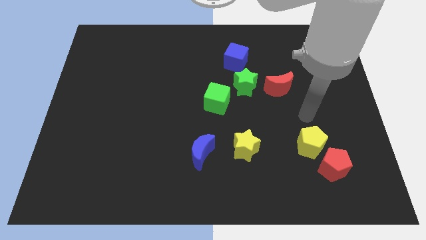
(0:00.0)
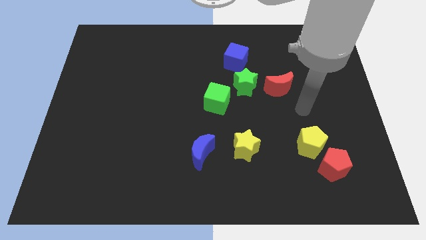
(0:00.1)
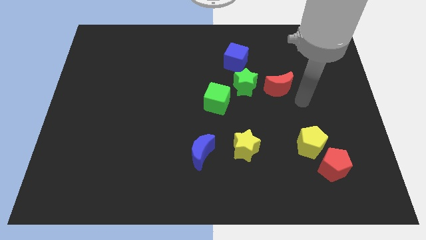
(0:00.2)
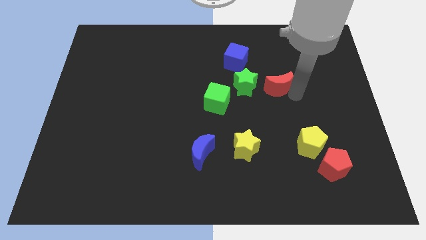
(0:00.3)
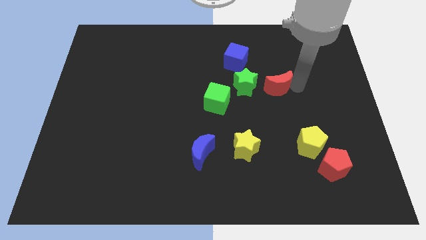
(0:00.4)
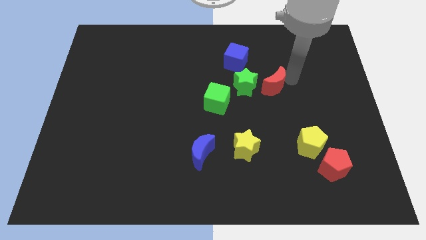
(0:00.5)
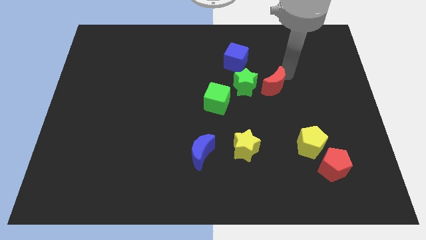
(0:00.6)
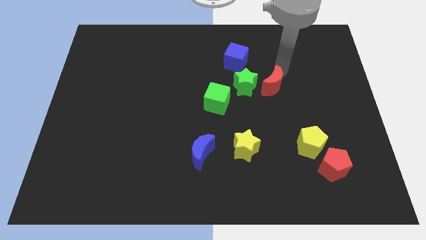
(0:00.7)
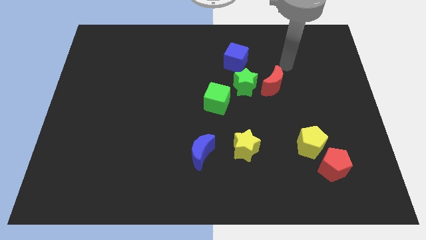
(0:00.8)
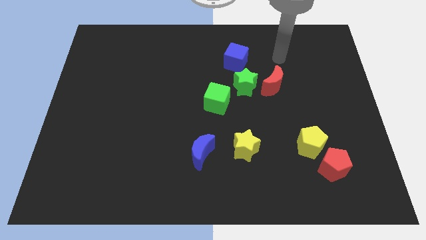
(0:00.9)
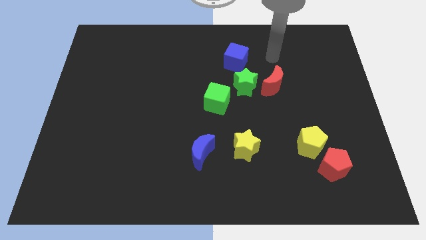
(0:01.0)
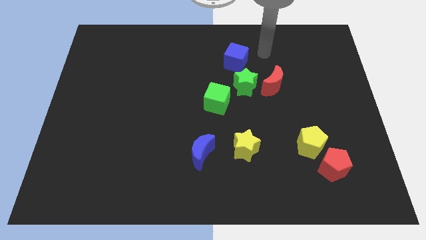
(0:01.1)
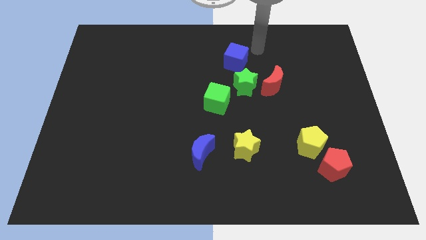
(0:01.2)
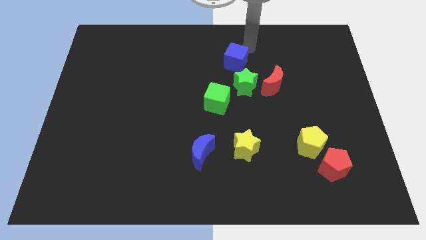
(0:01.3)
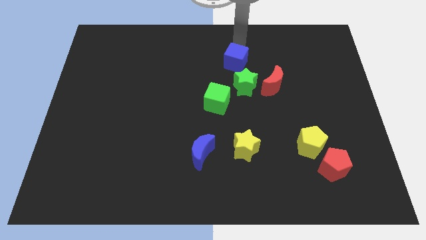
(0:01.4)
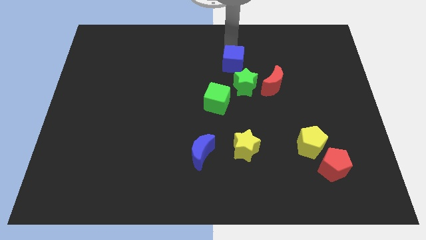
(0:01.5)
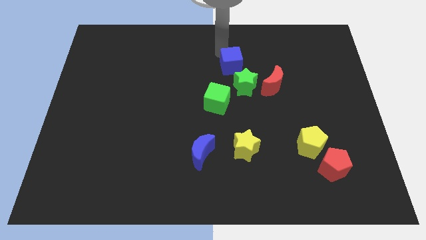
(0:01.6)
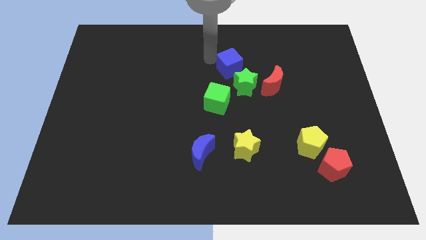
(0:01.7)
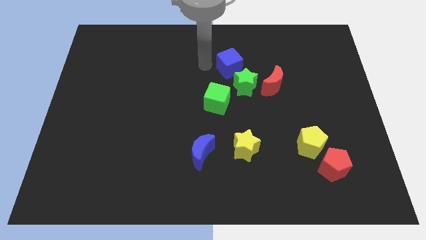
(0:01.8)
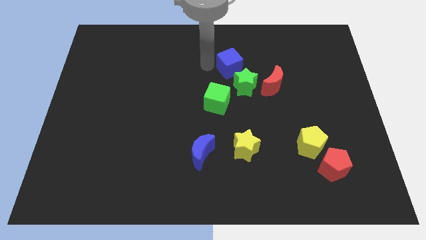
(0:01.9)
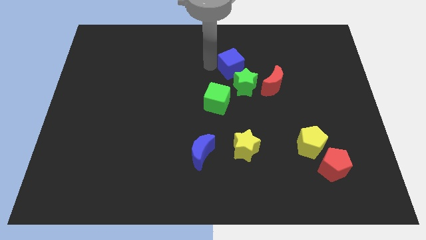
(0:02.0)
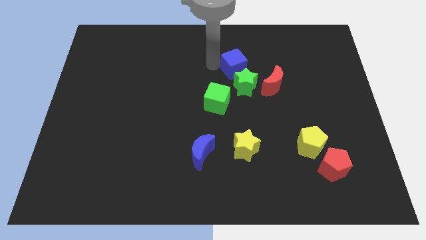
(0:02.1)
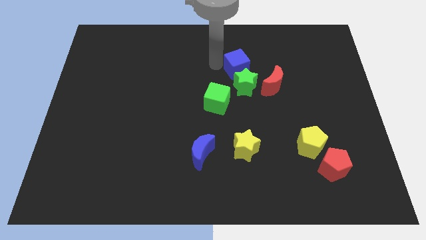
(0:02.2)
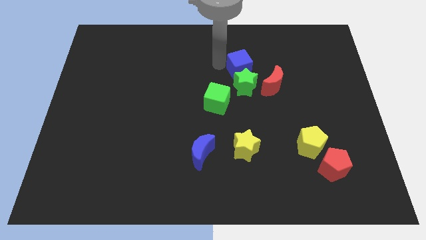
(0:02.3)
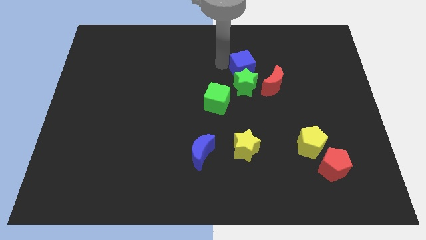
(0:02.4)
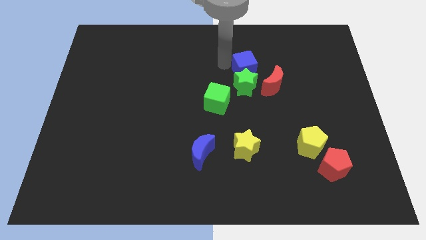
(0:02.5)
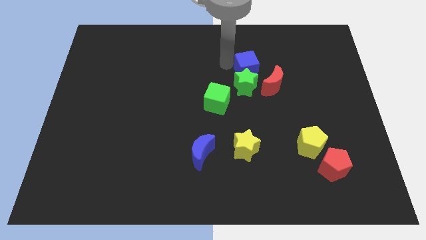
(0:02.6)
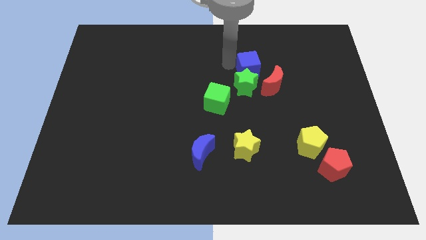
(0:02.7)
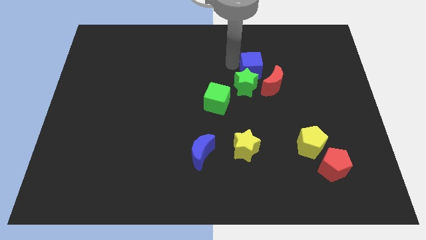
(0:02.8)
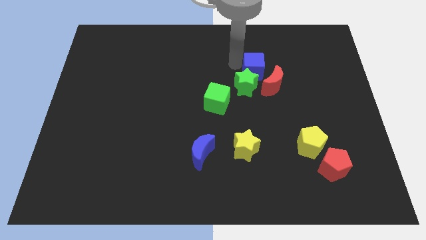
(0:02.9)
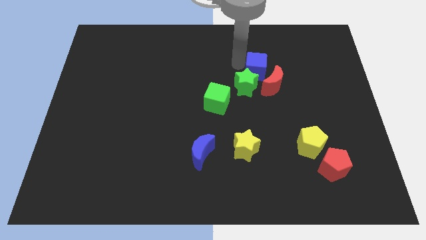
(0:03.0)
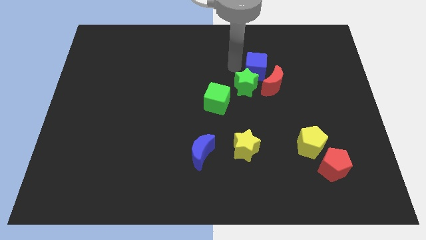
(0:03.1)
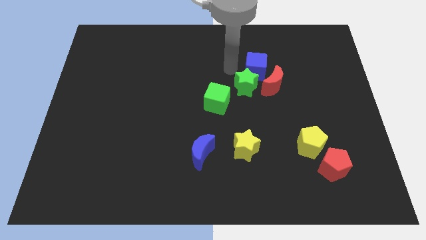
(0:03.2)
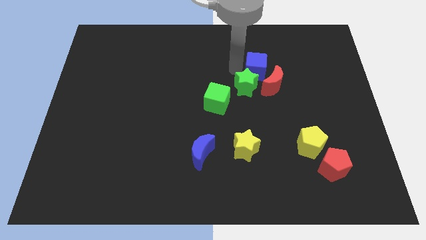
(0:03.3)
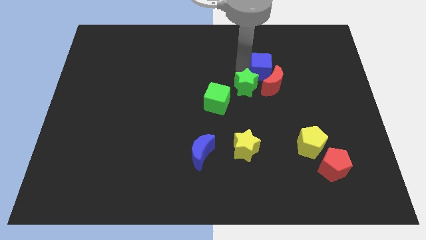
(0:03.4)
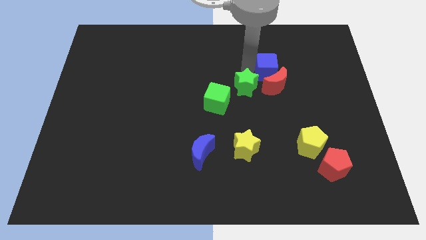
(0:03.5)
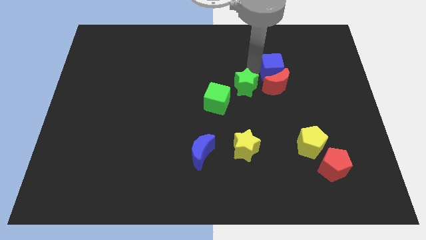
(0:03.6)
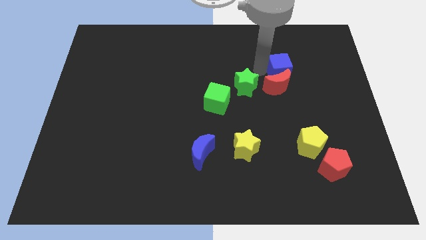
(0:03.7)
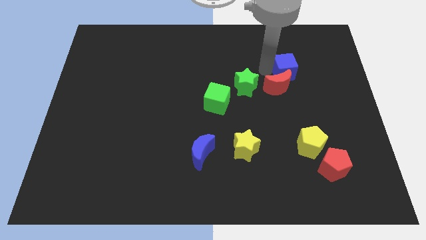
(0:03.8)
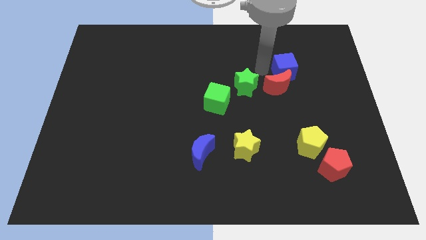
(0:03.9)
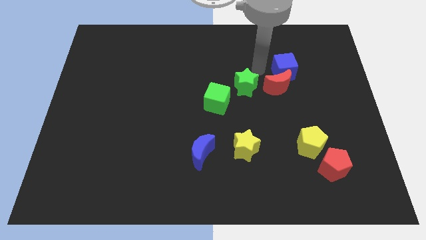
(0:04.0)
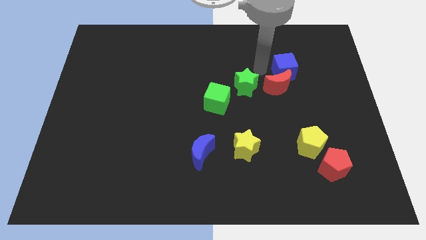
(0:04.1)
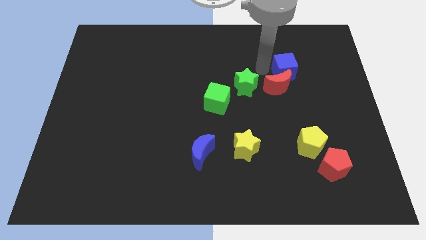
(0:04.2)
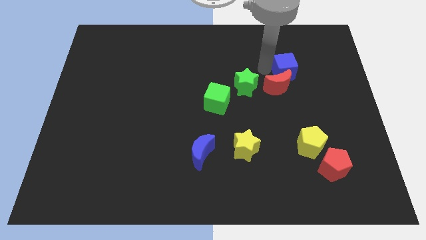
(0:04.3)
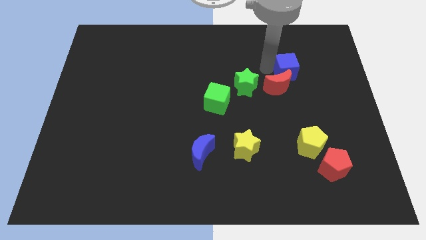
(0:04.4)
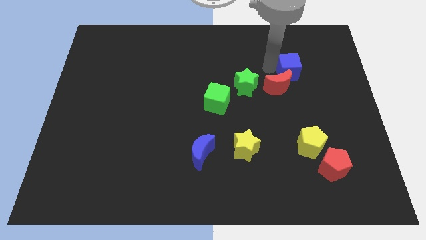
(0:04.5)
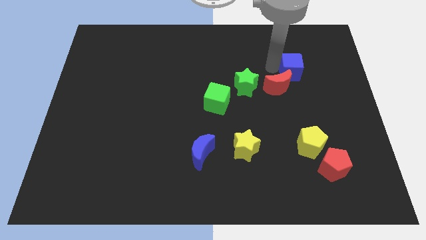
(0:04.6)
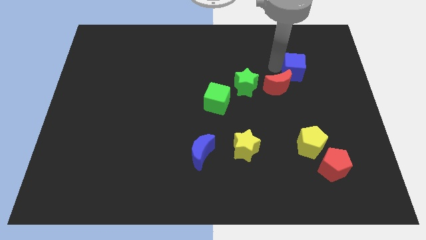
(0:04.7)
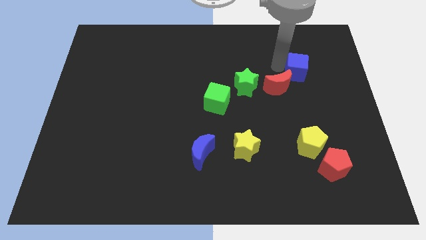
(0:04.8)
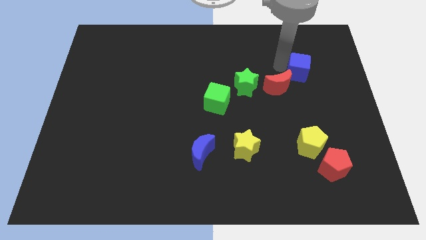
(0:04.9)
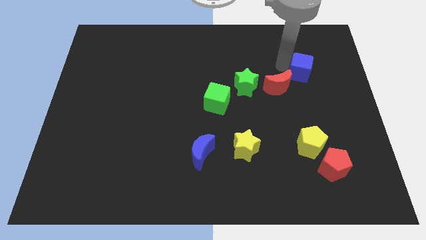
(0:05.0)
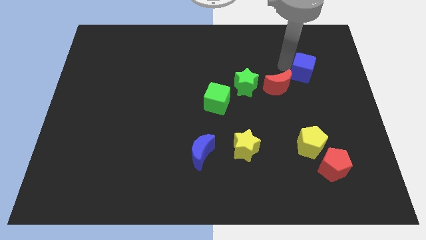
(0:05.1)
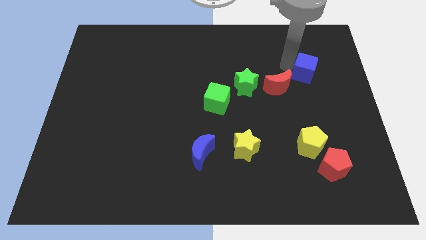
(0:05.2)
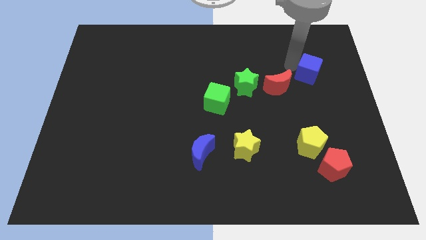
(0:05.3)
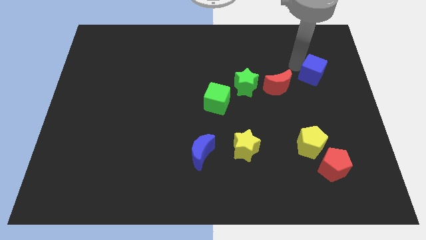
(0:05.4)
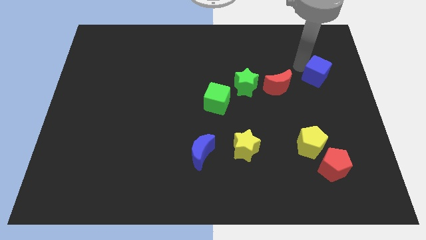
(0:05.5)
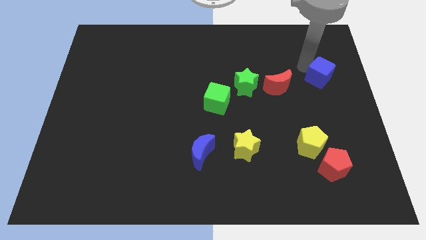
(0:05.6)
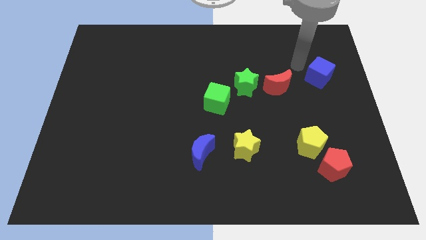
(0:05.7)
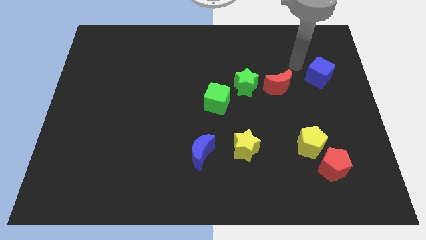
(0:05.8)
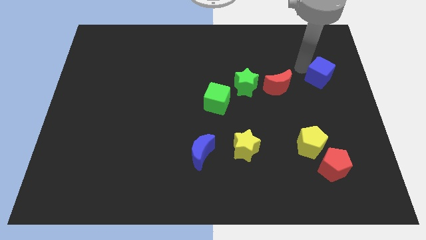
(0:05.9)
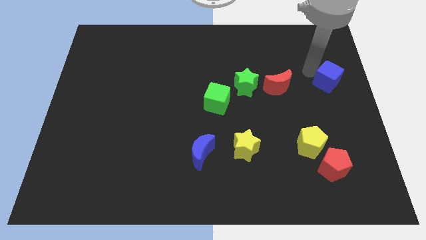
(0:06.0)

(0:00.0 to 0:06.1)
push the blue cube to the right side of the board
